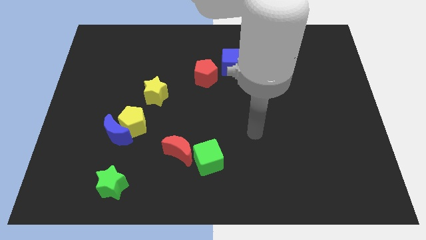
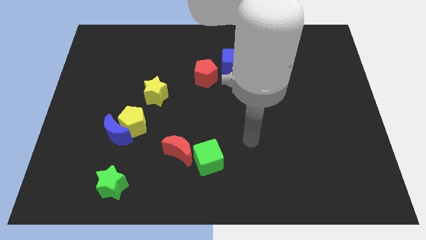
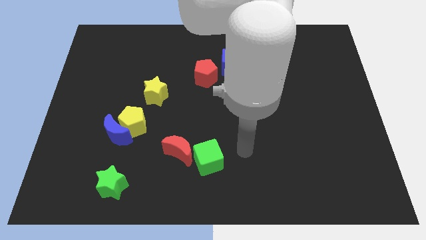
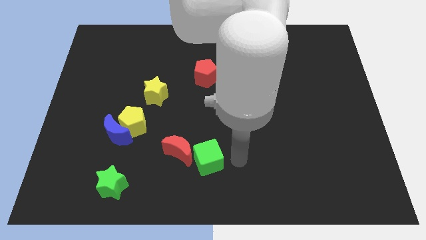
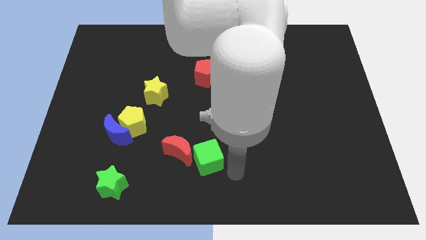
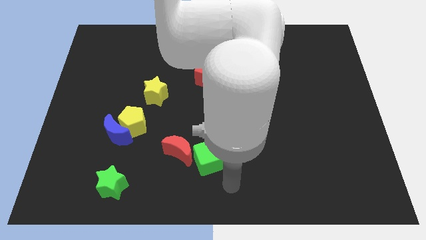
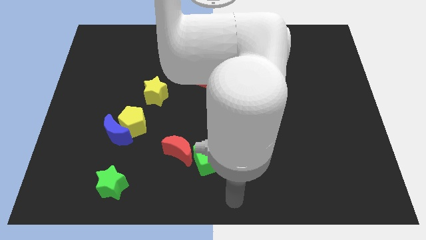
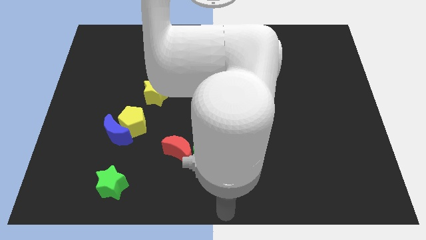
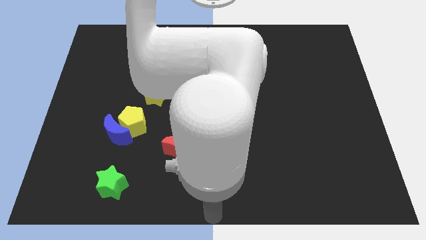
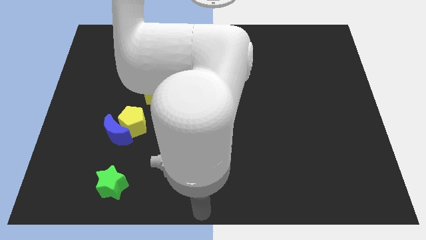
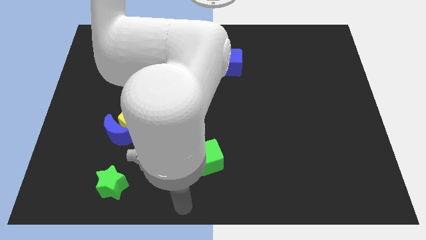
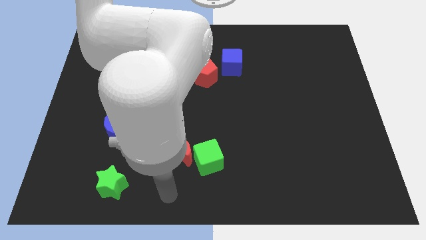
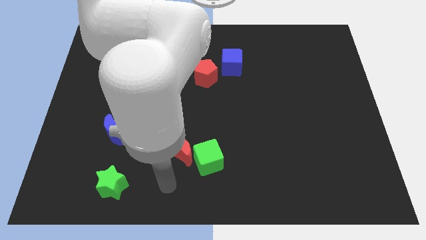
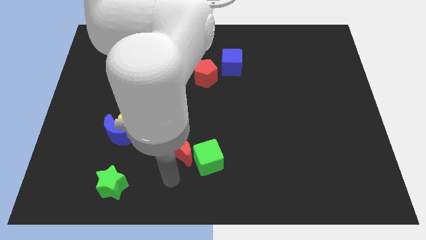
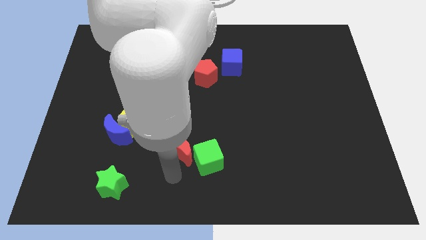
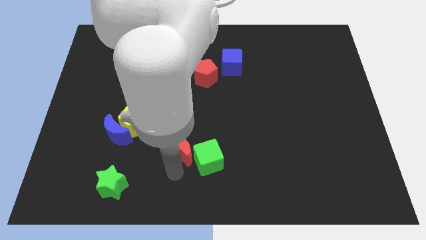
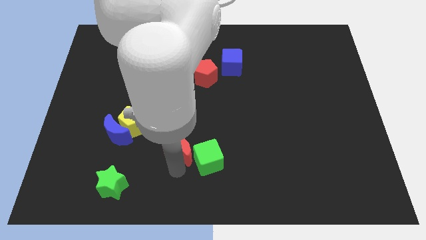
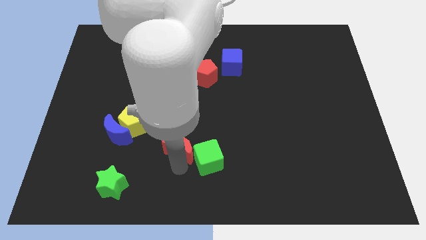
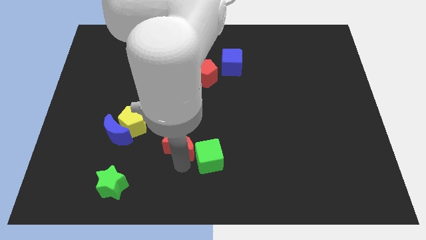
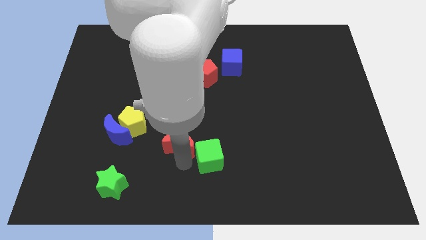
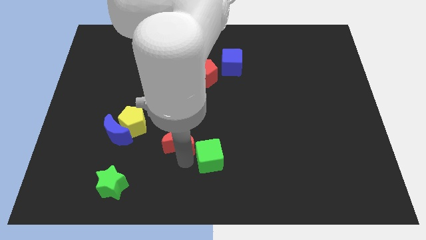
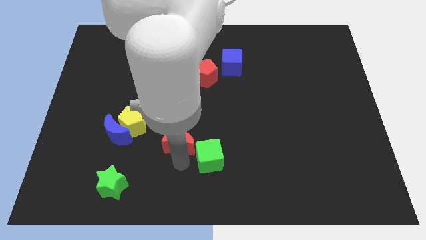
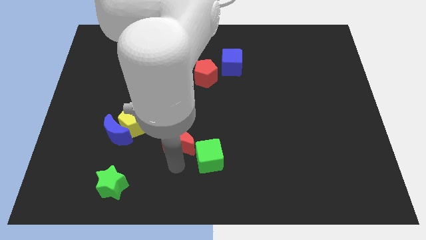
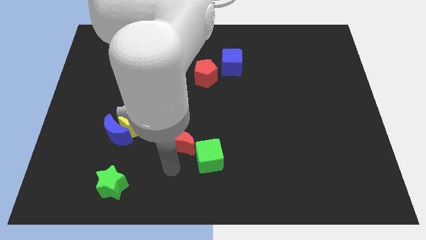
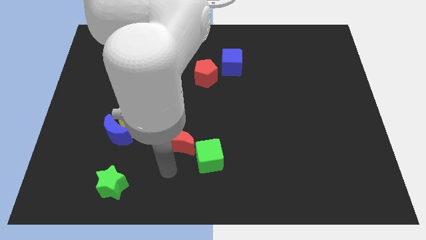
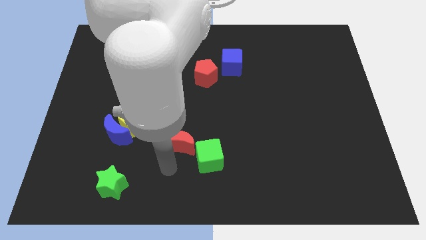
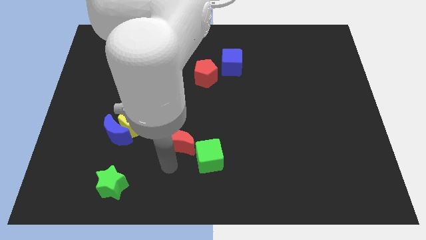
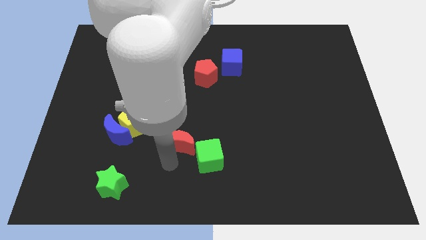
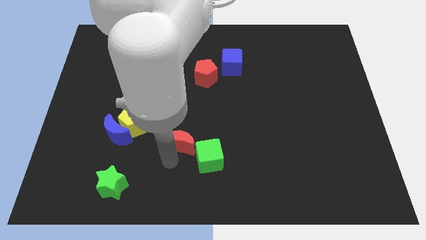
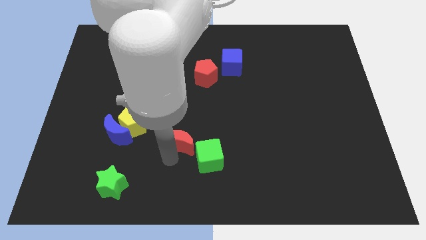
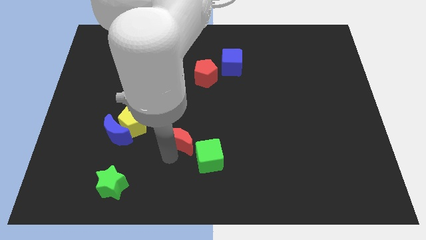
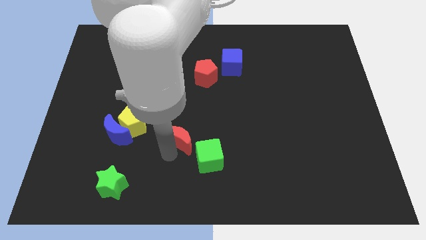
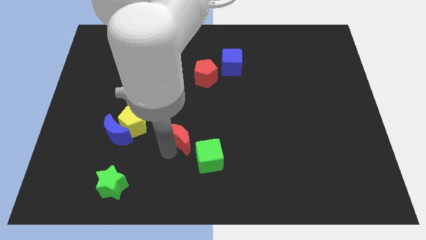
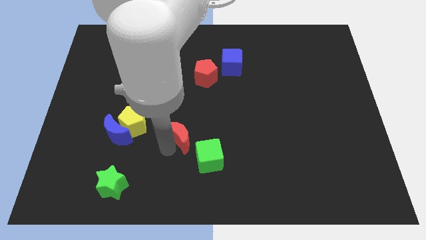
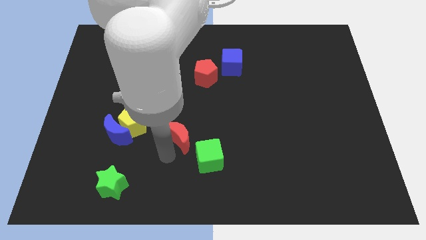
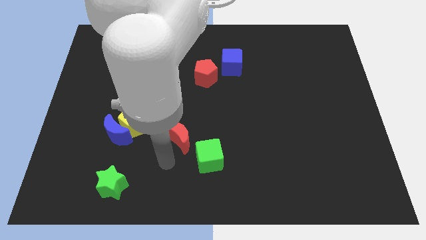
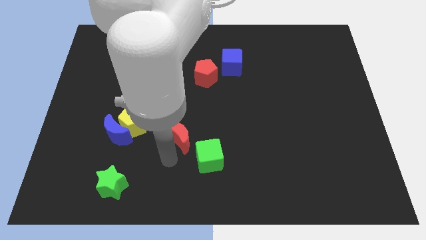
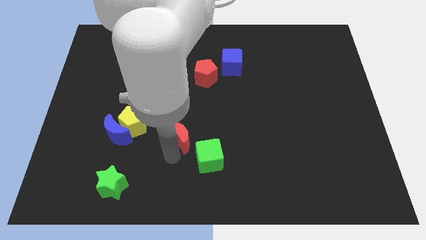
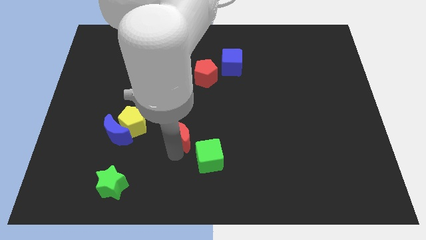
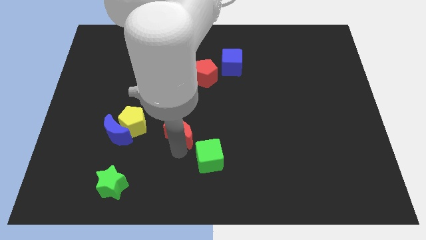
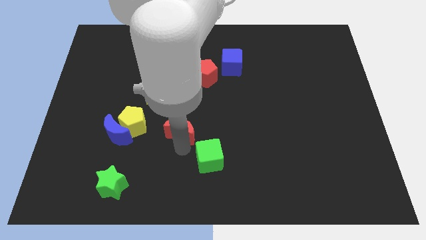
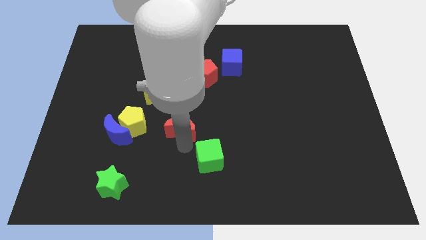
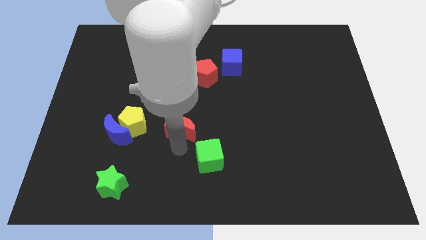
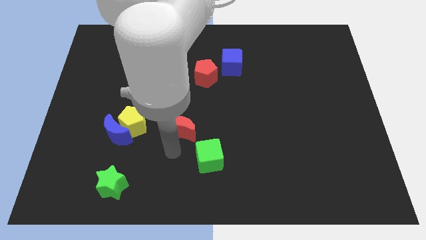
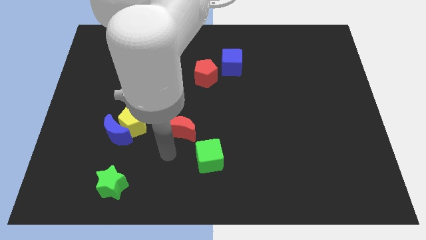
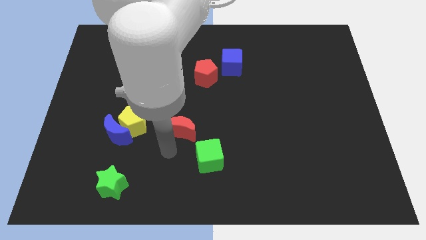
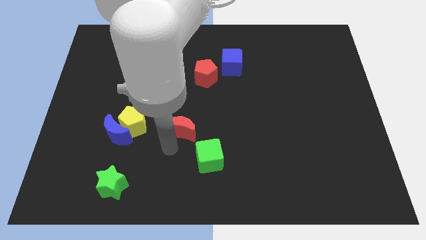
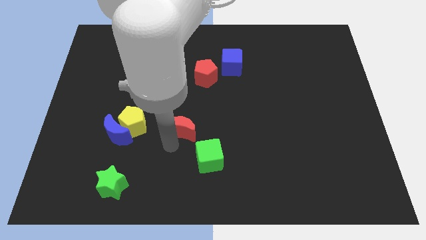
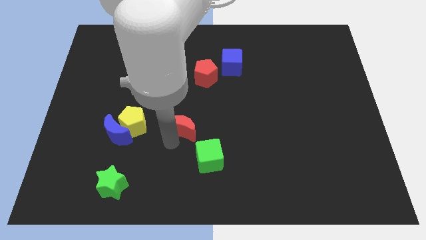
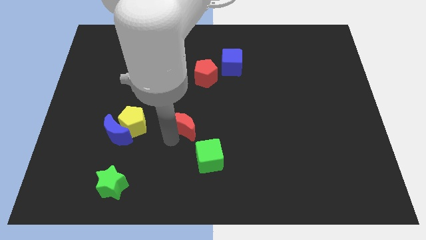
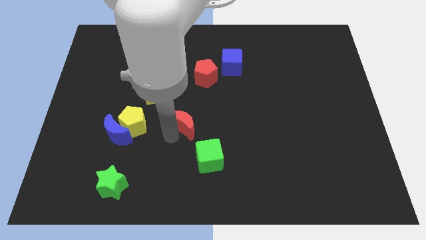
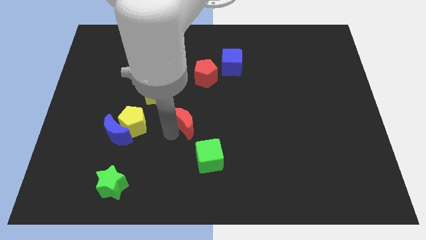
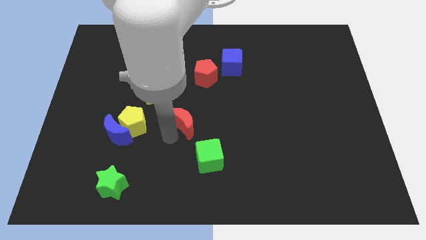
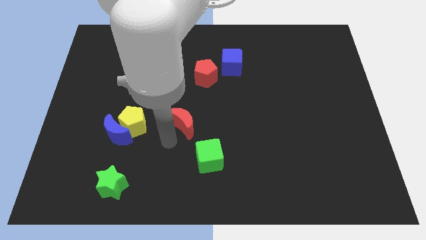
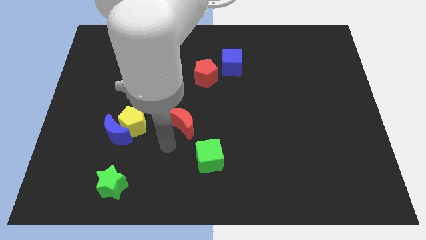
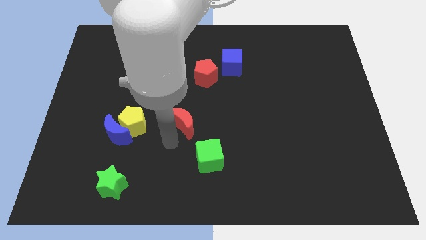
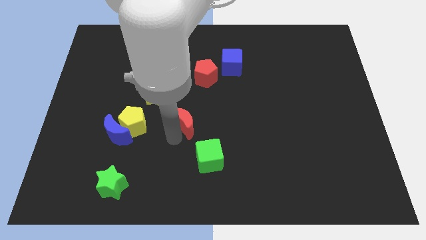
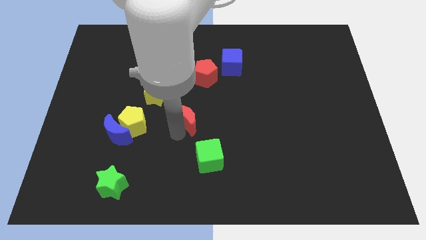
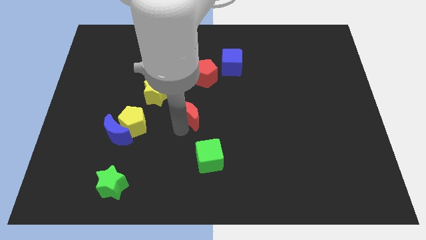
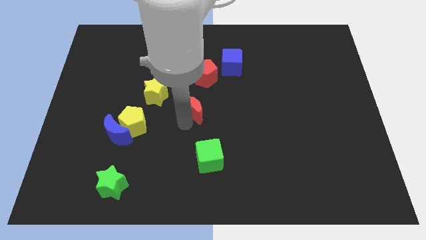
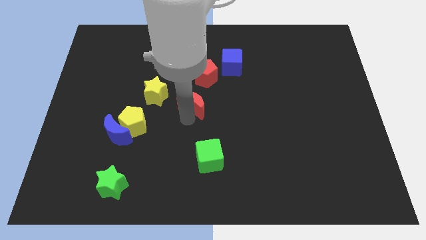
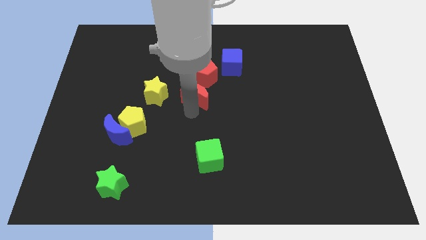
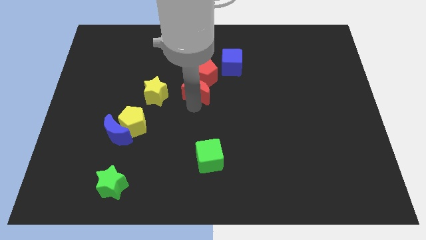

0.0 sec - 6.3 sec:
slide the red moon towards the red pentagon

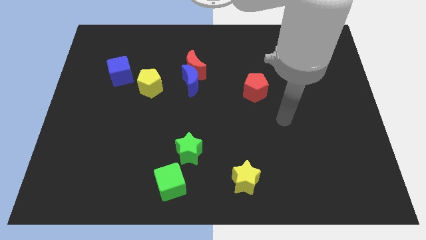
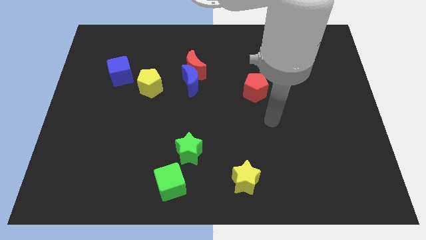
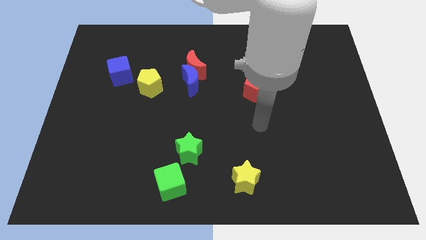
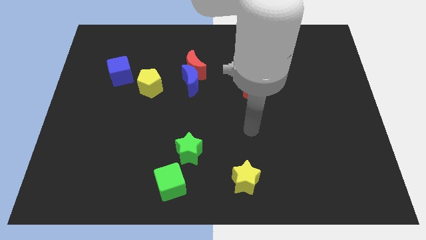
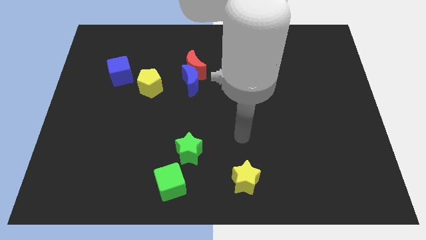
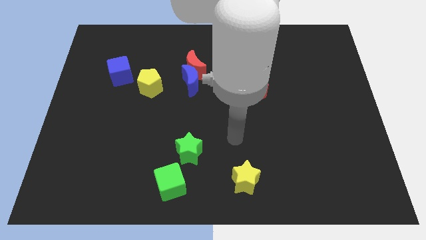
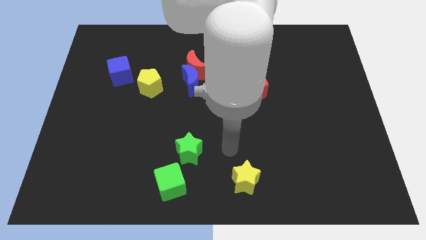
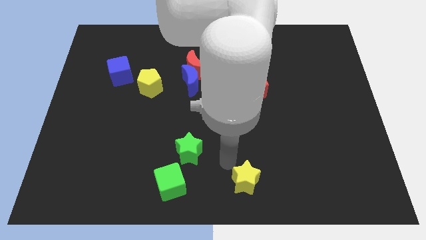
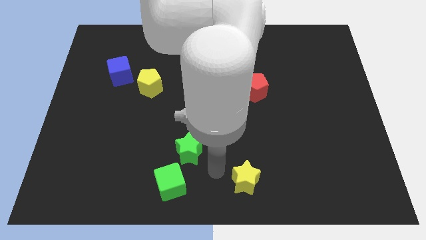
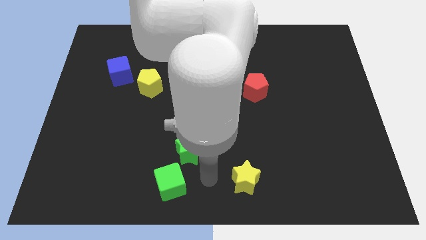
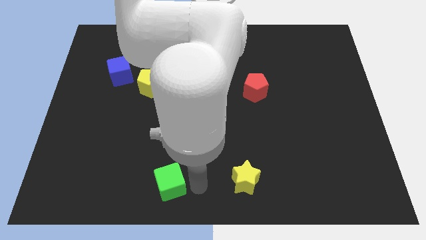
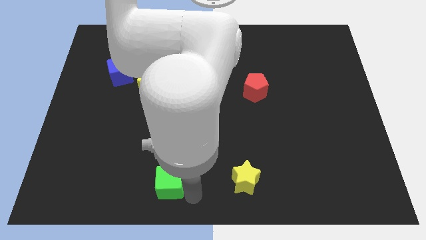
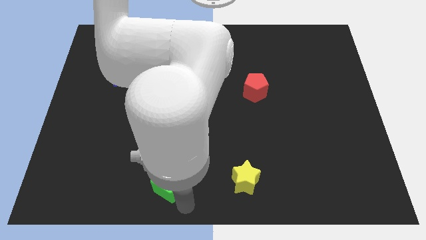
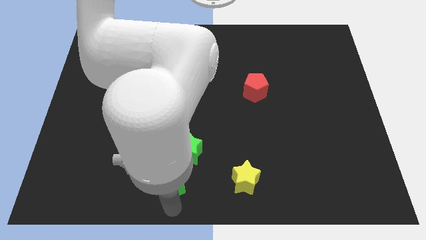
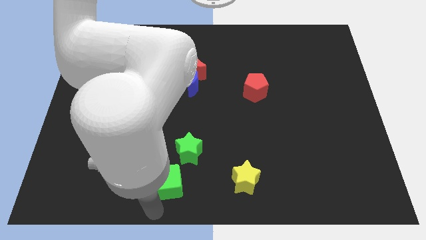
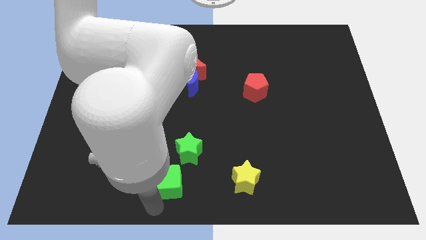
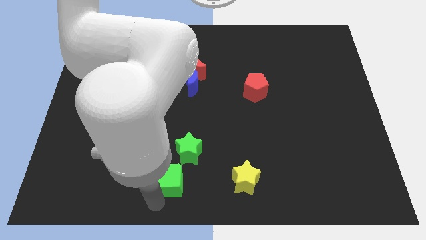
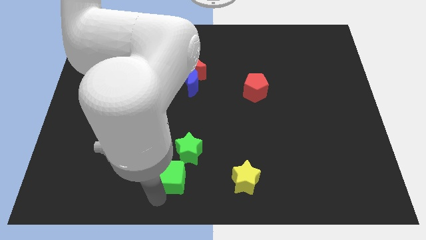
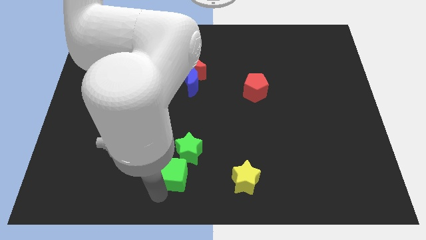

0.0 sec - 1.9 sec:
put the green cube to the green star
